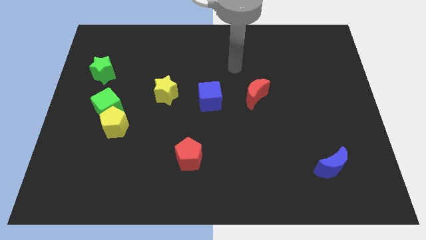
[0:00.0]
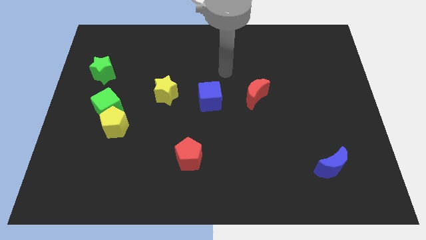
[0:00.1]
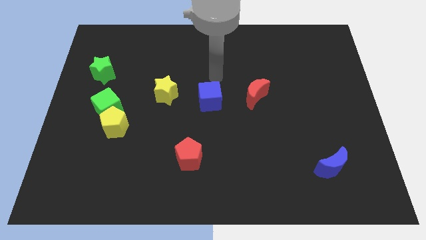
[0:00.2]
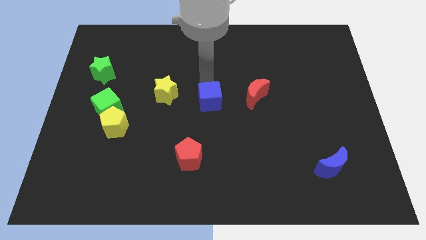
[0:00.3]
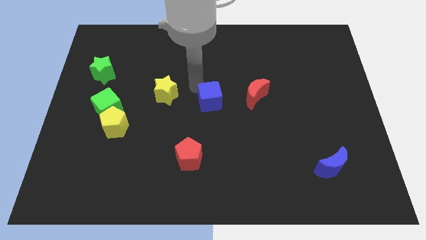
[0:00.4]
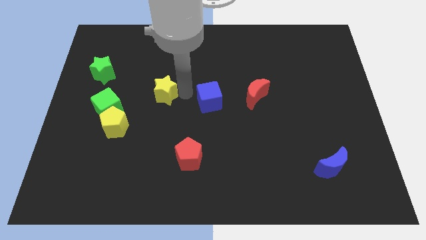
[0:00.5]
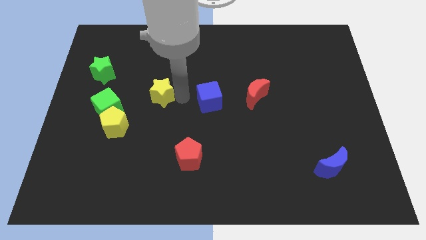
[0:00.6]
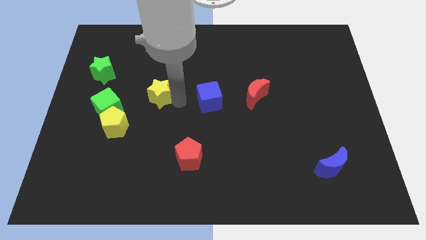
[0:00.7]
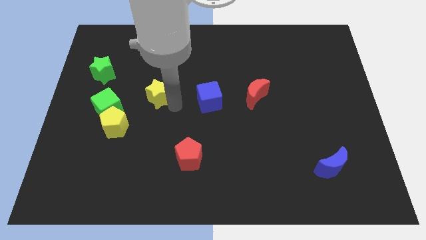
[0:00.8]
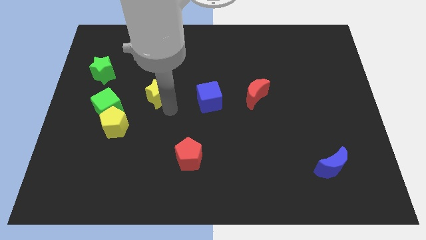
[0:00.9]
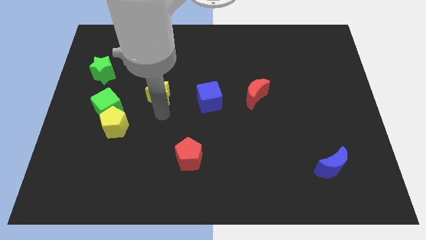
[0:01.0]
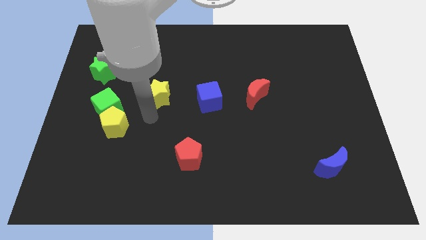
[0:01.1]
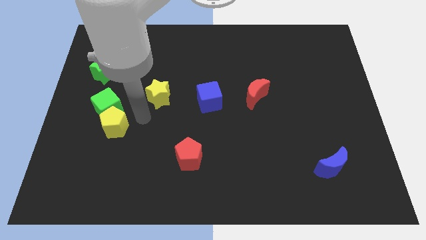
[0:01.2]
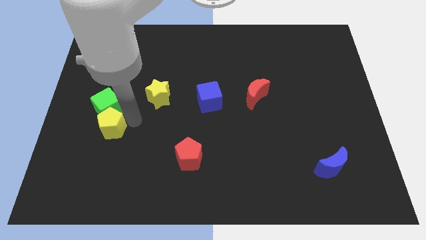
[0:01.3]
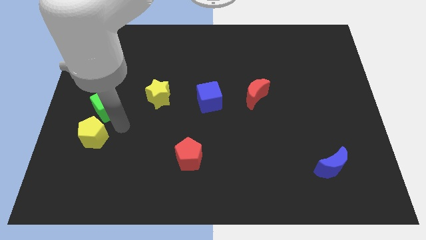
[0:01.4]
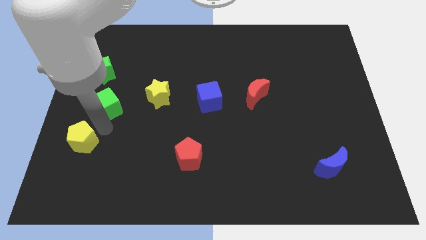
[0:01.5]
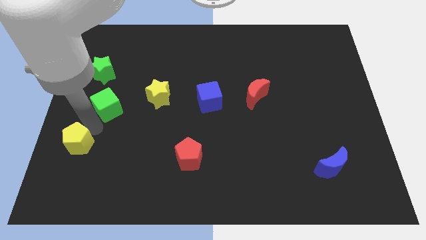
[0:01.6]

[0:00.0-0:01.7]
move the green cube away from the yellow pentagon

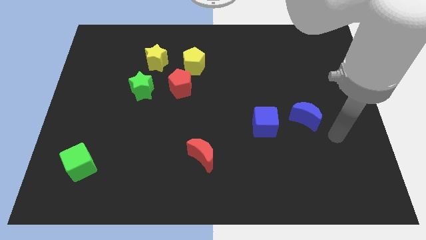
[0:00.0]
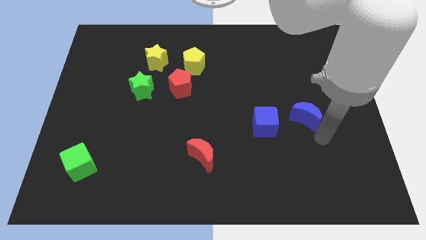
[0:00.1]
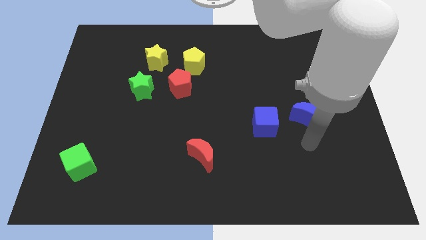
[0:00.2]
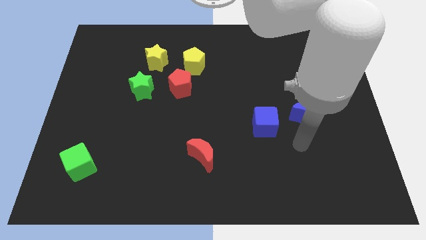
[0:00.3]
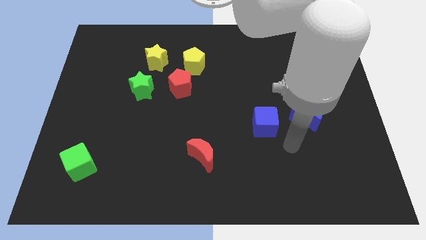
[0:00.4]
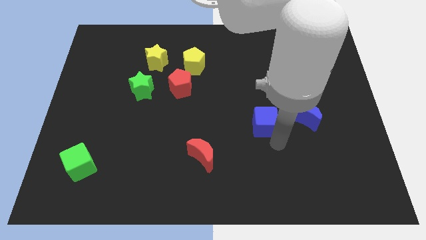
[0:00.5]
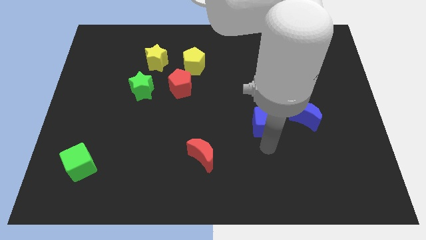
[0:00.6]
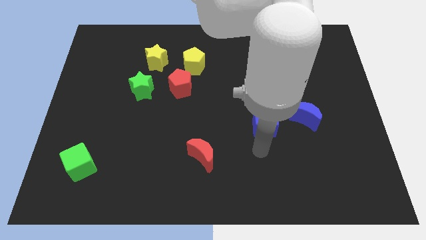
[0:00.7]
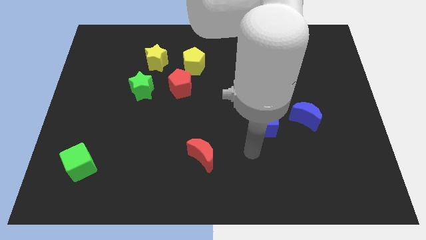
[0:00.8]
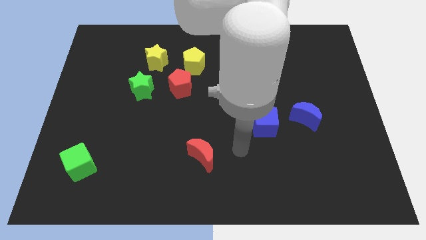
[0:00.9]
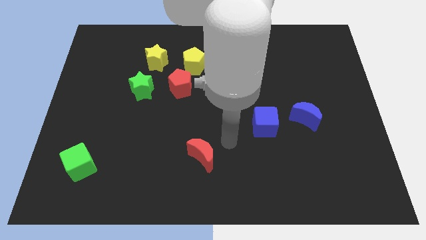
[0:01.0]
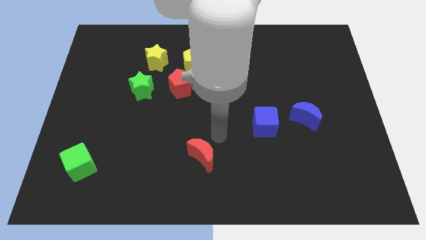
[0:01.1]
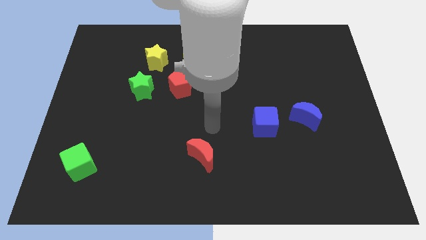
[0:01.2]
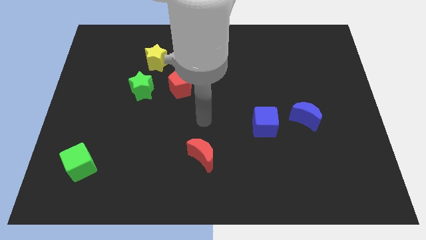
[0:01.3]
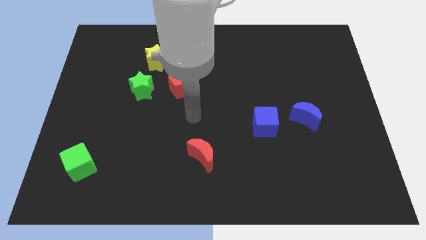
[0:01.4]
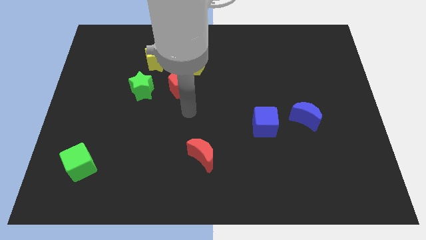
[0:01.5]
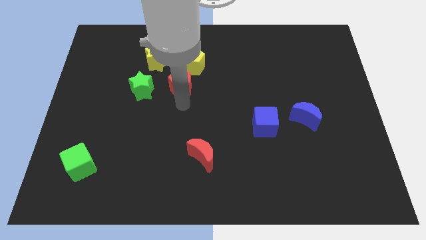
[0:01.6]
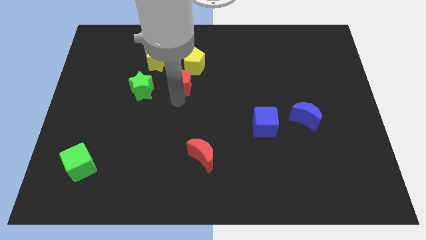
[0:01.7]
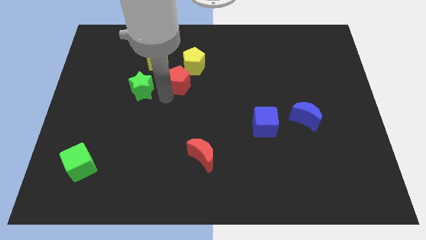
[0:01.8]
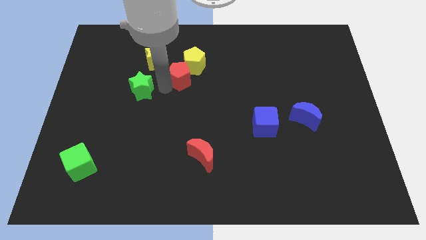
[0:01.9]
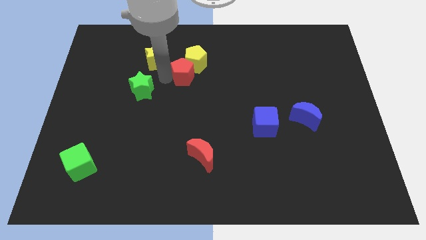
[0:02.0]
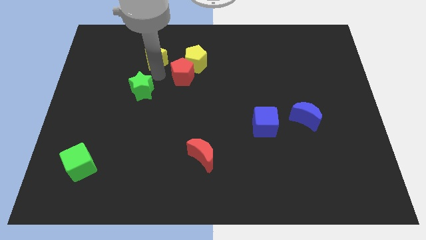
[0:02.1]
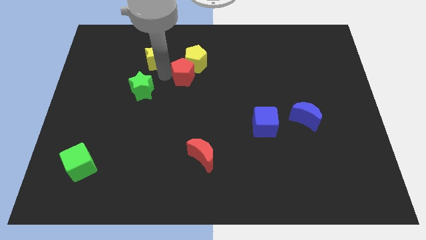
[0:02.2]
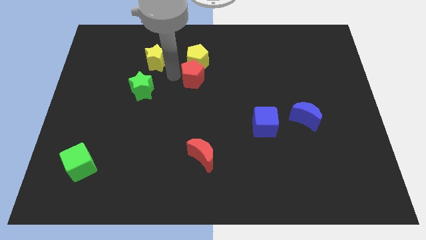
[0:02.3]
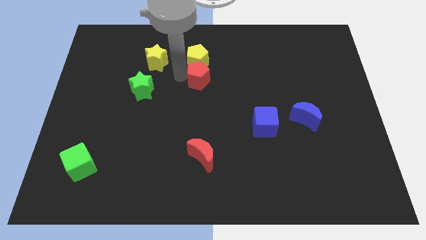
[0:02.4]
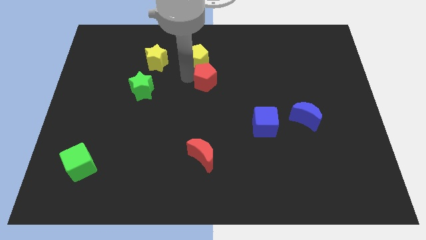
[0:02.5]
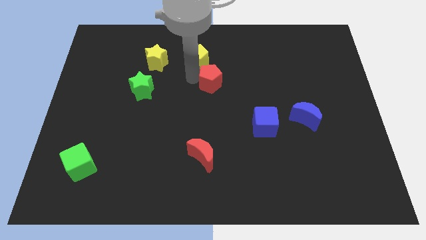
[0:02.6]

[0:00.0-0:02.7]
pull the red pentagon apart from the yellow pentagon and green star

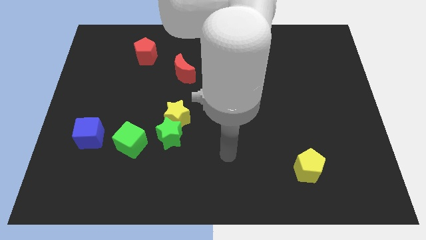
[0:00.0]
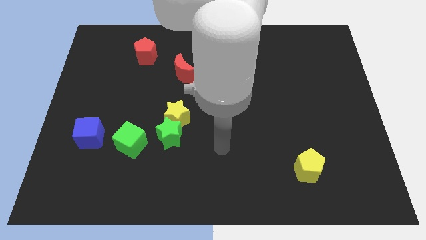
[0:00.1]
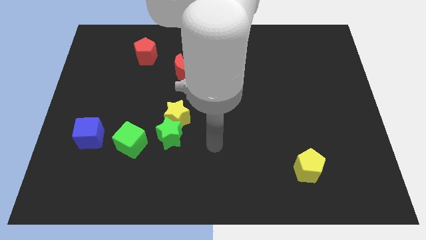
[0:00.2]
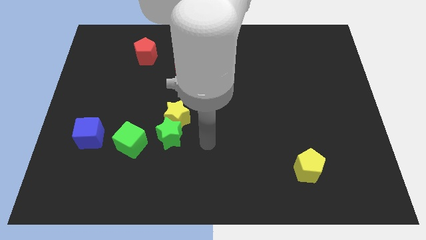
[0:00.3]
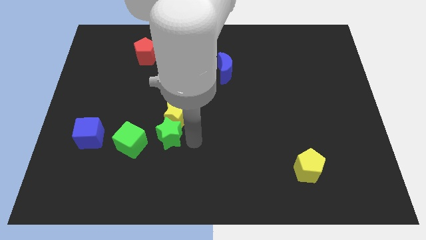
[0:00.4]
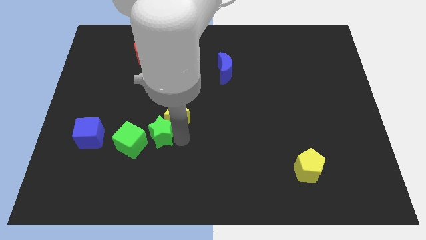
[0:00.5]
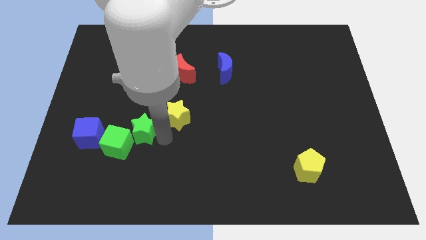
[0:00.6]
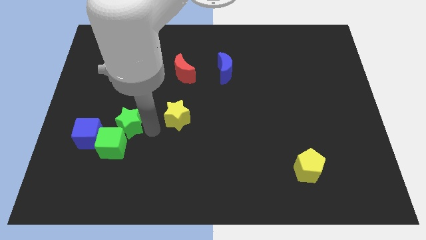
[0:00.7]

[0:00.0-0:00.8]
separate the yellow star from the green star

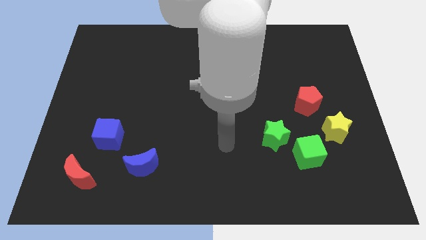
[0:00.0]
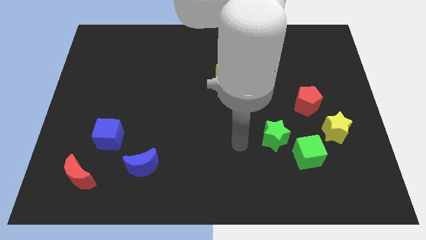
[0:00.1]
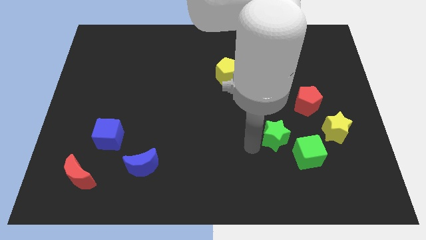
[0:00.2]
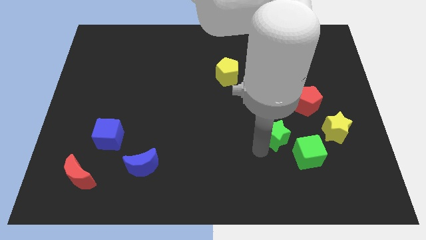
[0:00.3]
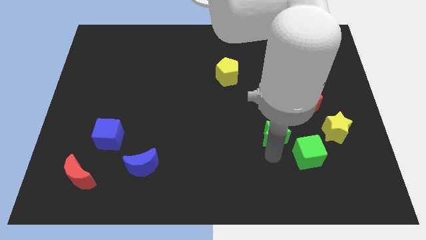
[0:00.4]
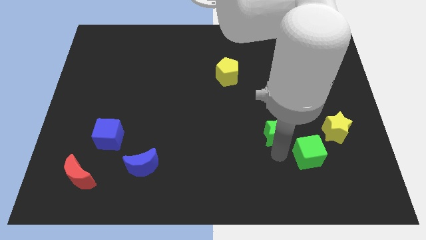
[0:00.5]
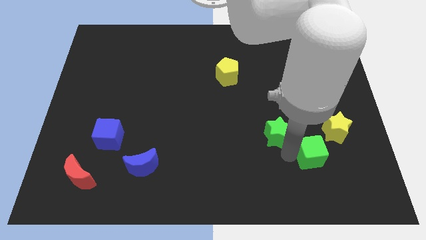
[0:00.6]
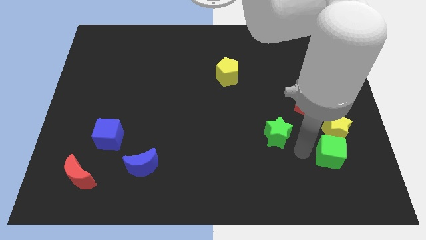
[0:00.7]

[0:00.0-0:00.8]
move the green star away from the green cube

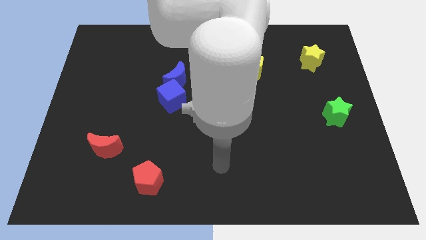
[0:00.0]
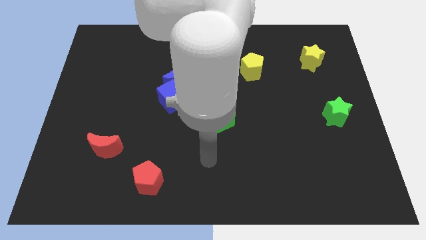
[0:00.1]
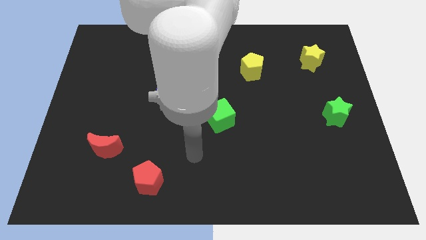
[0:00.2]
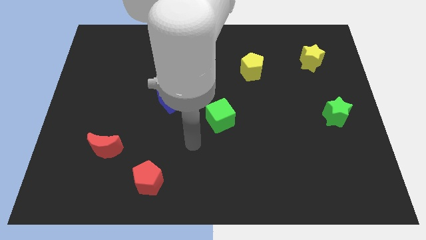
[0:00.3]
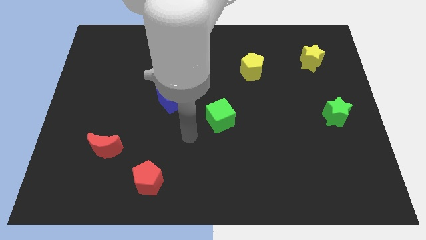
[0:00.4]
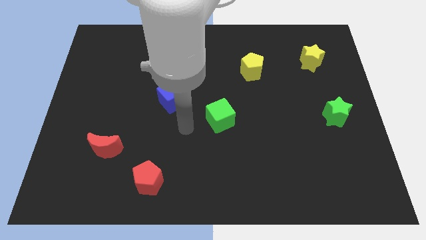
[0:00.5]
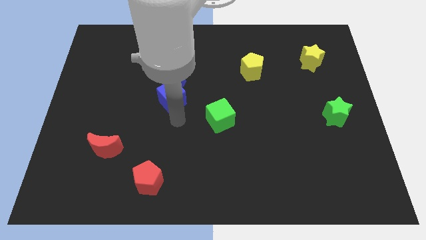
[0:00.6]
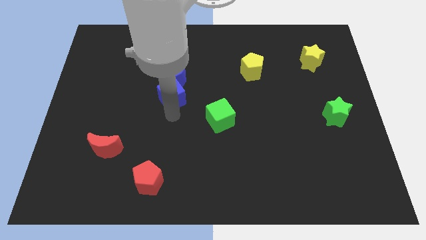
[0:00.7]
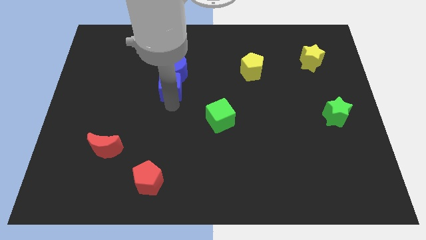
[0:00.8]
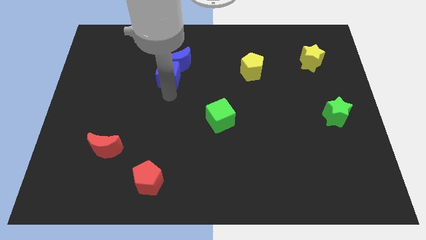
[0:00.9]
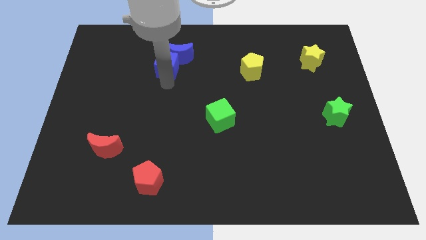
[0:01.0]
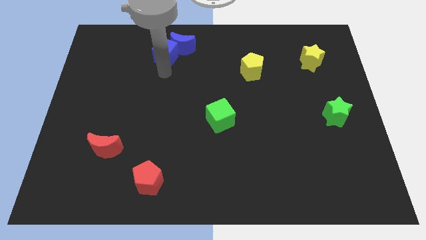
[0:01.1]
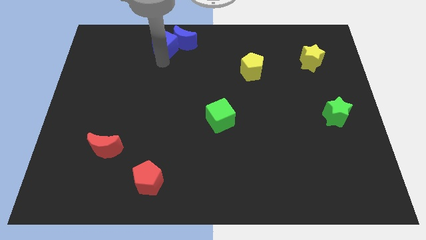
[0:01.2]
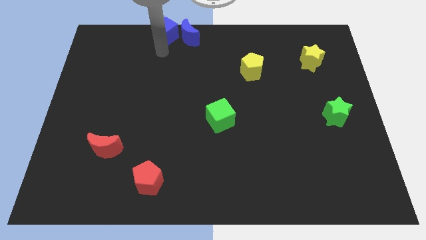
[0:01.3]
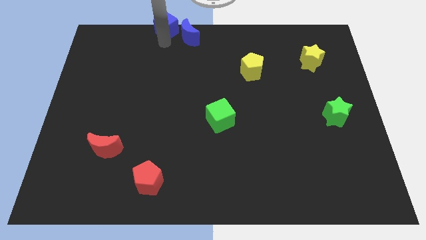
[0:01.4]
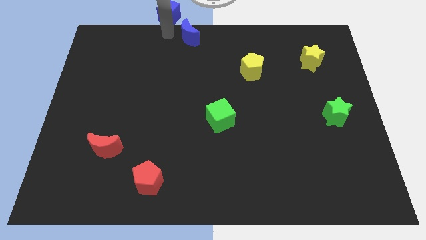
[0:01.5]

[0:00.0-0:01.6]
move the blue moon away from the blue cube

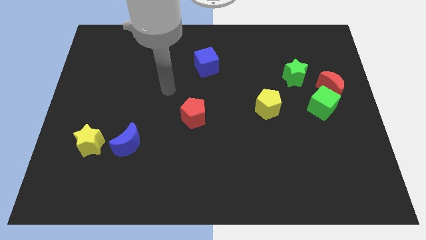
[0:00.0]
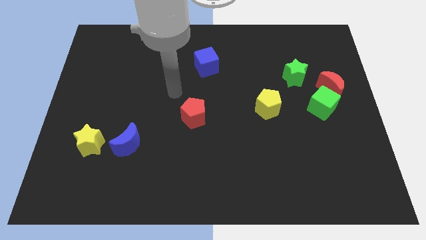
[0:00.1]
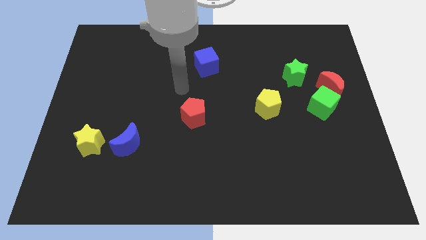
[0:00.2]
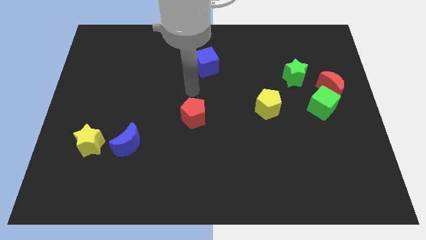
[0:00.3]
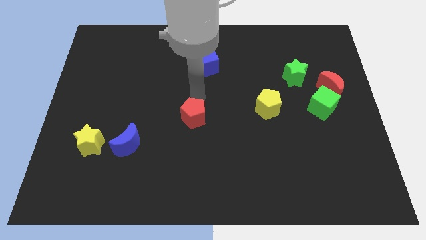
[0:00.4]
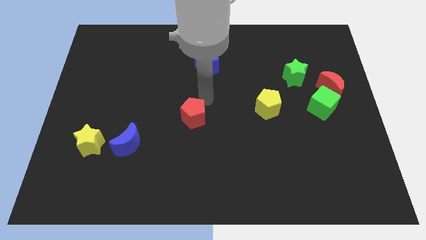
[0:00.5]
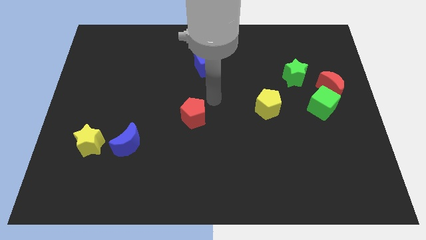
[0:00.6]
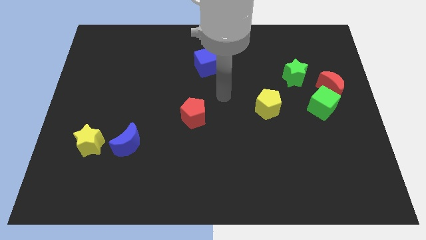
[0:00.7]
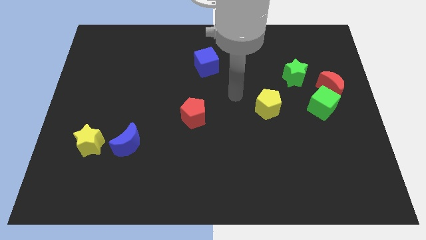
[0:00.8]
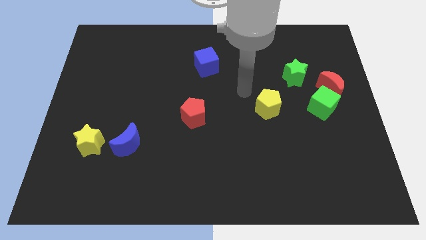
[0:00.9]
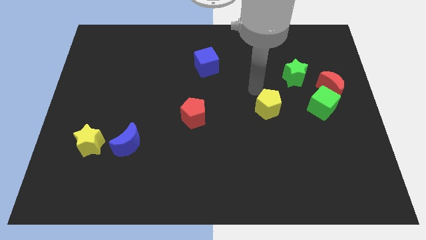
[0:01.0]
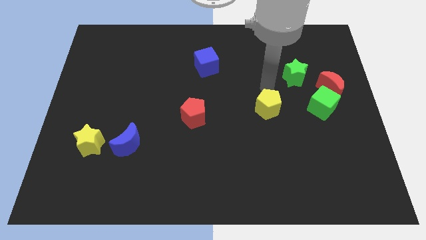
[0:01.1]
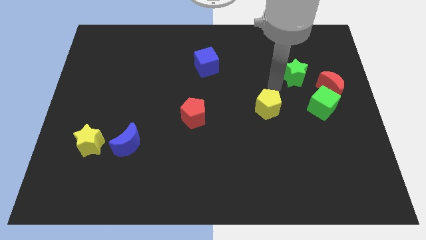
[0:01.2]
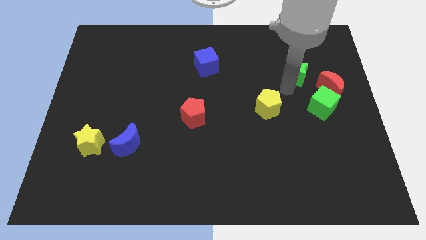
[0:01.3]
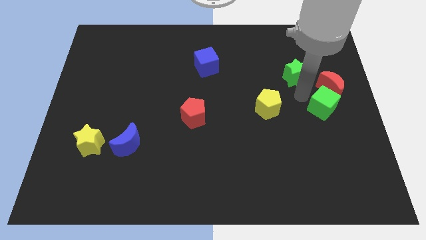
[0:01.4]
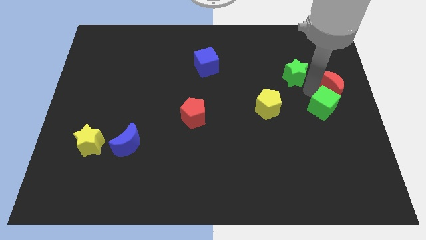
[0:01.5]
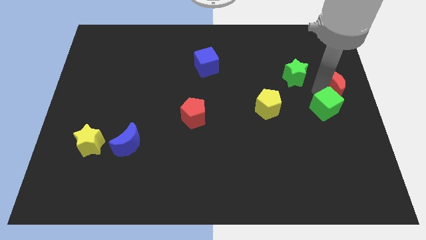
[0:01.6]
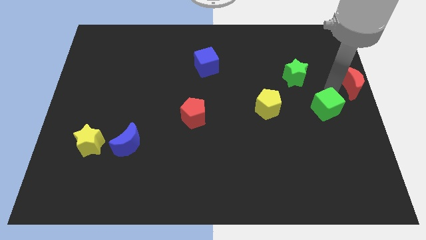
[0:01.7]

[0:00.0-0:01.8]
pull the green cube apart from the red moon
